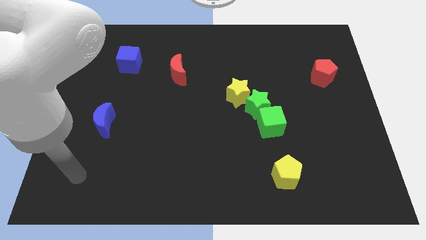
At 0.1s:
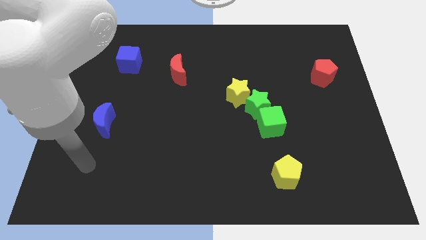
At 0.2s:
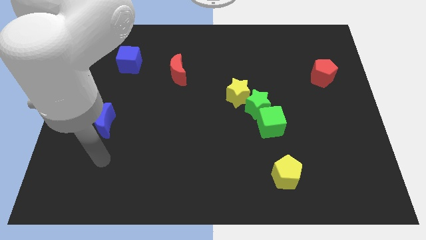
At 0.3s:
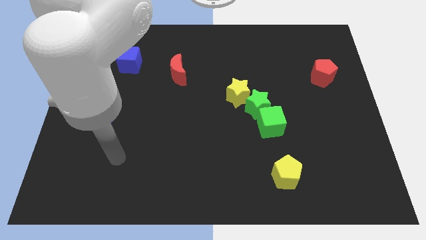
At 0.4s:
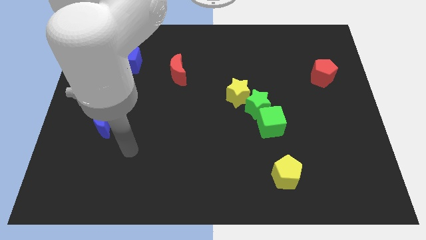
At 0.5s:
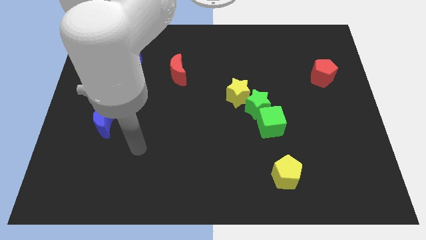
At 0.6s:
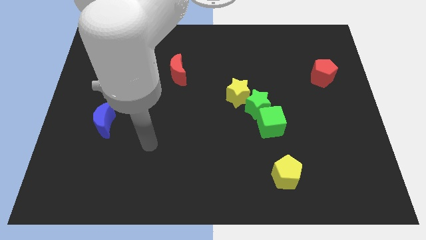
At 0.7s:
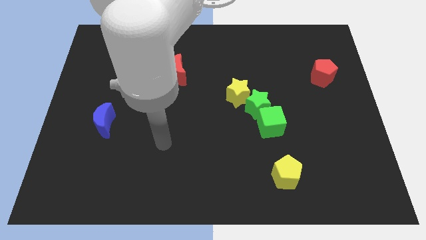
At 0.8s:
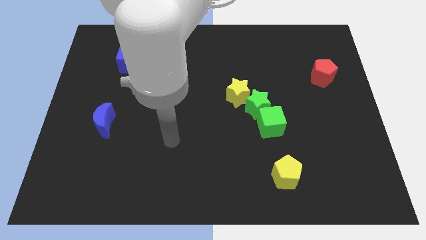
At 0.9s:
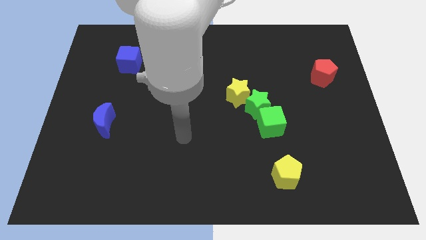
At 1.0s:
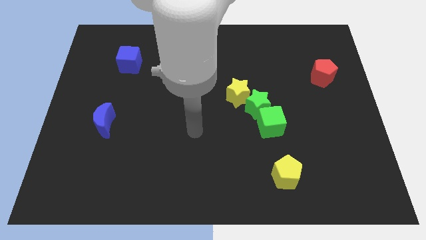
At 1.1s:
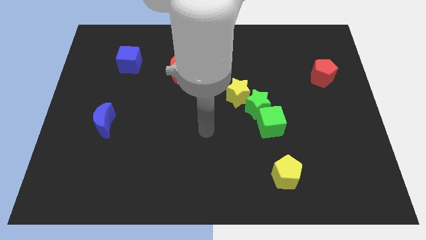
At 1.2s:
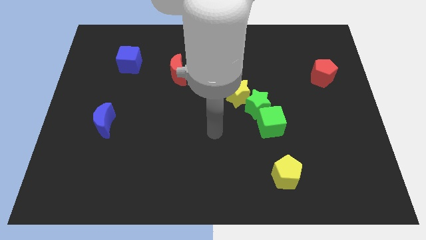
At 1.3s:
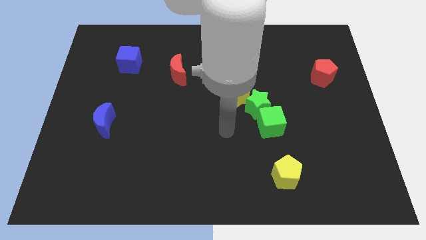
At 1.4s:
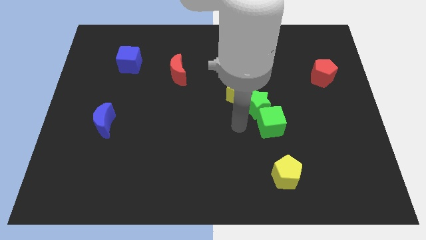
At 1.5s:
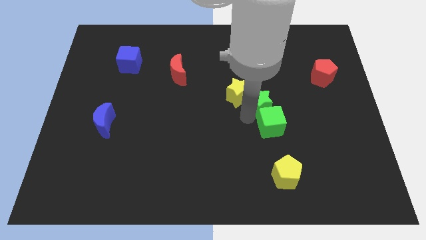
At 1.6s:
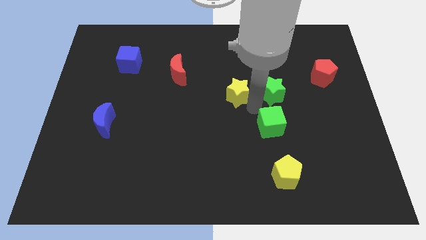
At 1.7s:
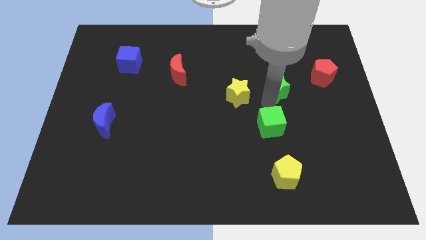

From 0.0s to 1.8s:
pull the green cube apart from the green star

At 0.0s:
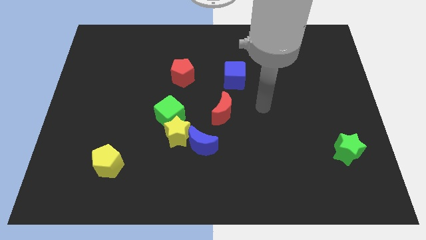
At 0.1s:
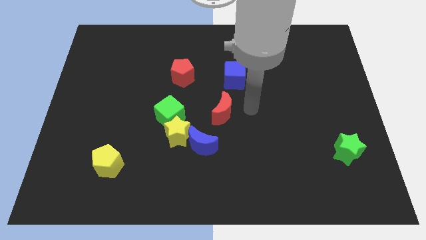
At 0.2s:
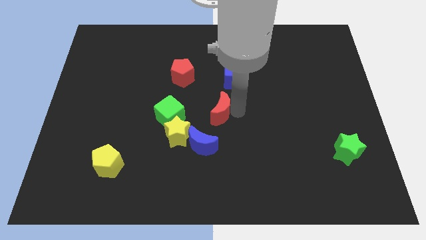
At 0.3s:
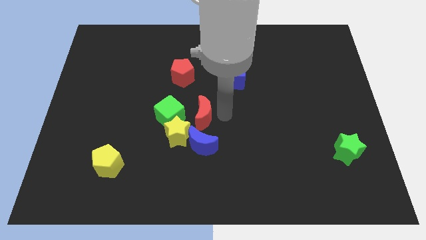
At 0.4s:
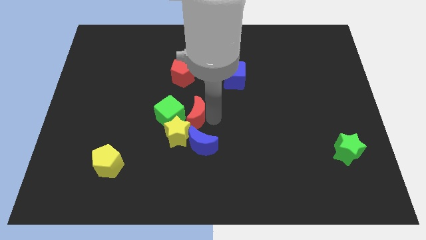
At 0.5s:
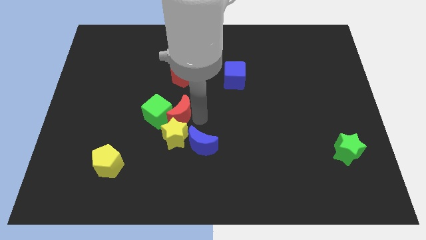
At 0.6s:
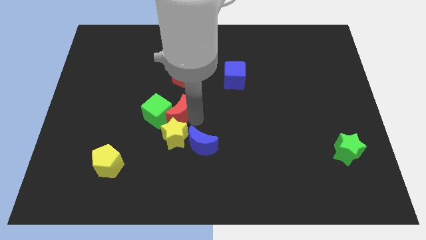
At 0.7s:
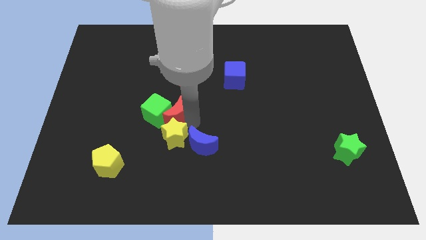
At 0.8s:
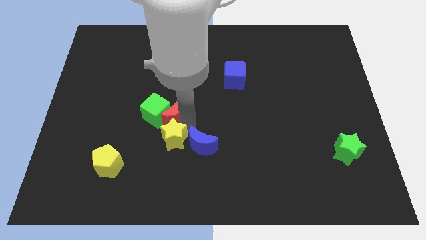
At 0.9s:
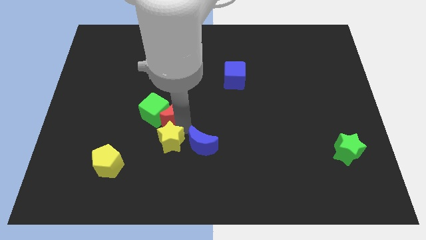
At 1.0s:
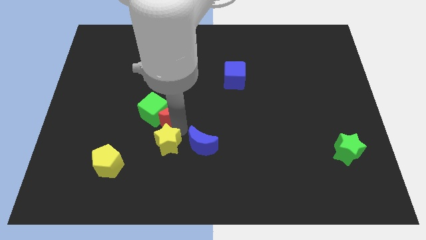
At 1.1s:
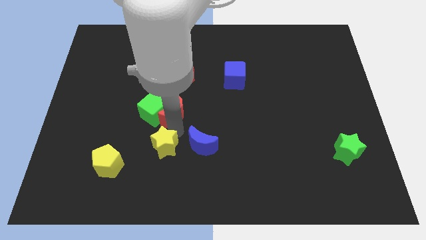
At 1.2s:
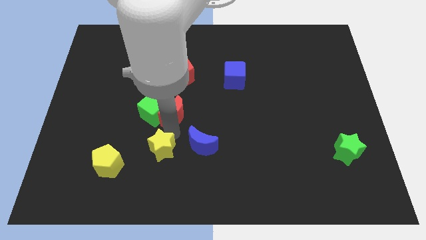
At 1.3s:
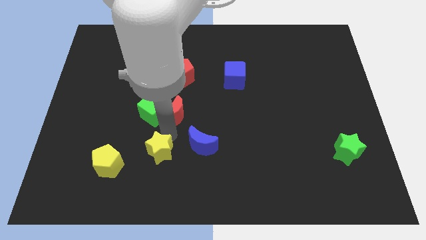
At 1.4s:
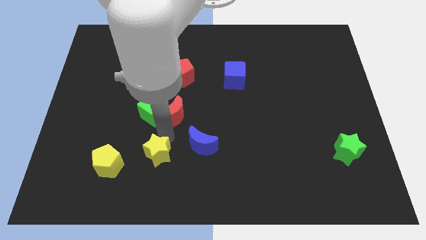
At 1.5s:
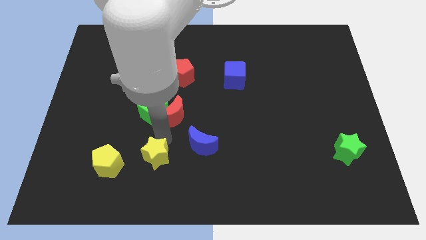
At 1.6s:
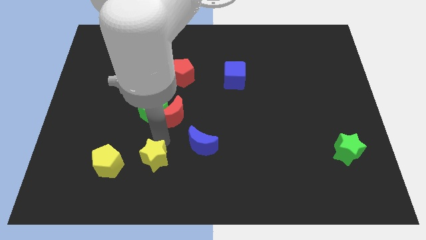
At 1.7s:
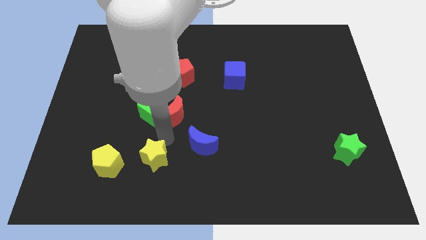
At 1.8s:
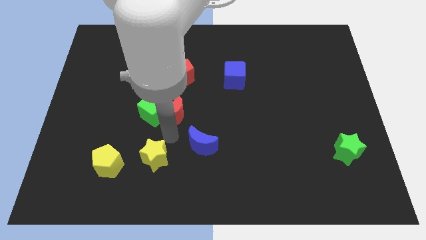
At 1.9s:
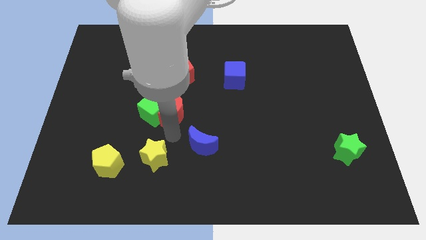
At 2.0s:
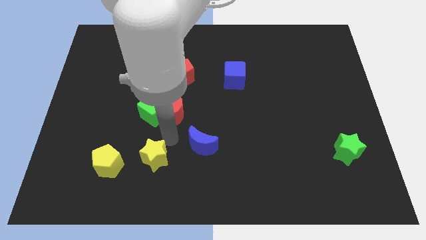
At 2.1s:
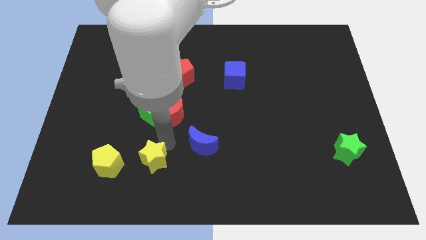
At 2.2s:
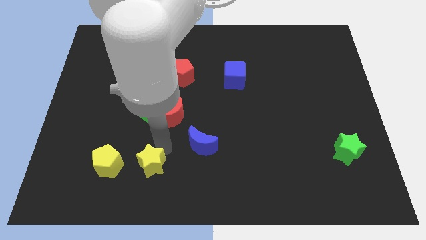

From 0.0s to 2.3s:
separate the yellow star from the blue moon and green cube

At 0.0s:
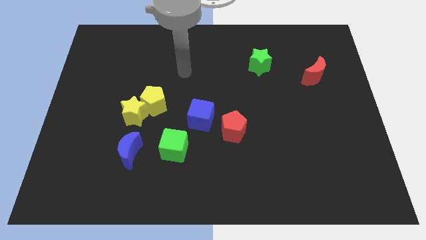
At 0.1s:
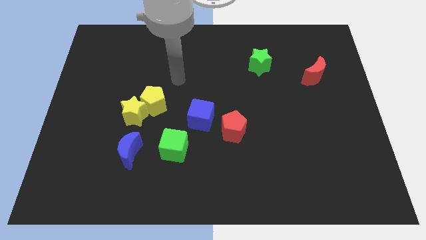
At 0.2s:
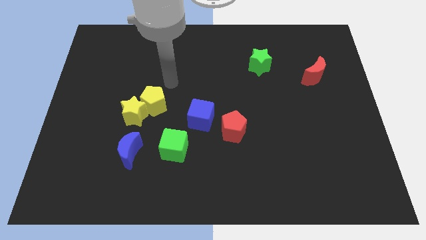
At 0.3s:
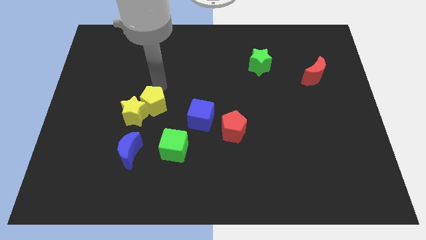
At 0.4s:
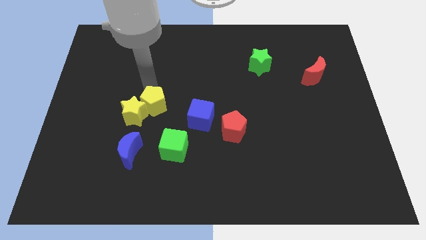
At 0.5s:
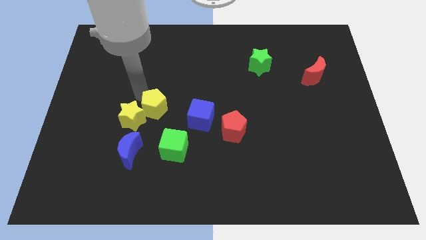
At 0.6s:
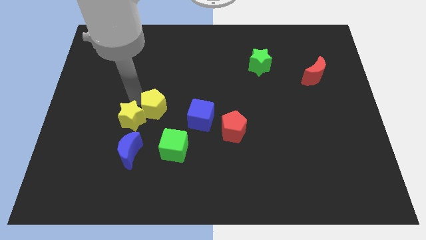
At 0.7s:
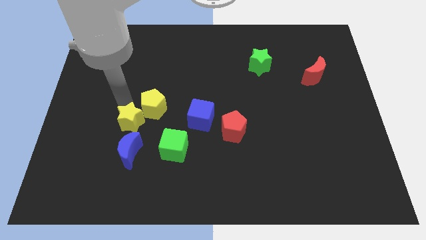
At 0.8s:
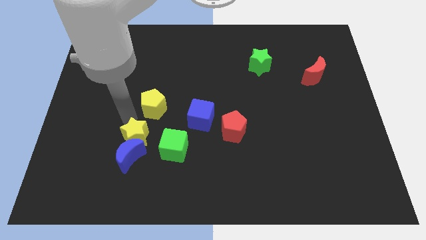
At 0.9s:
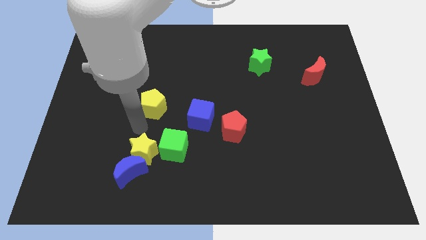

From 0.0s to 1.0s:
separate the yellow pentagon from the yellow star

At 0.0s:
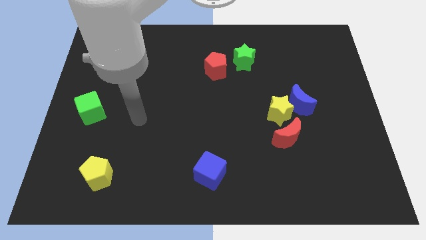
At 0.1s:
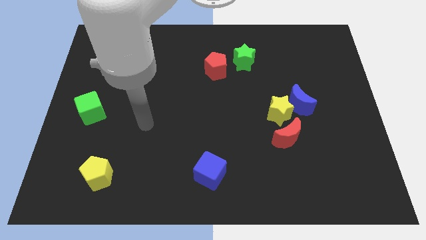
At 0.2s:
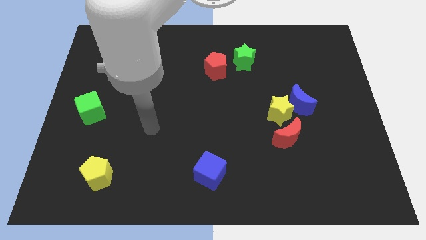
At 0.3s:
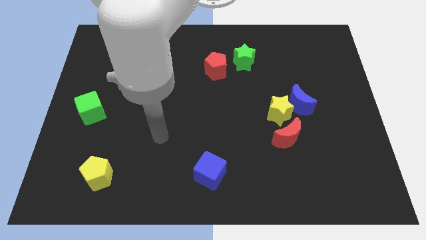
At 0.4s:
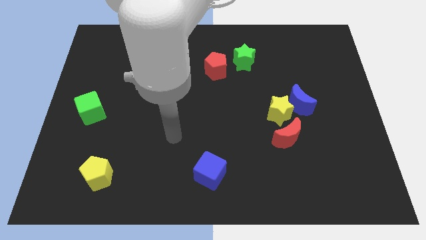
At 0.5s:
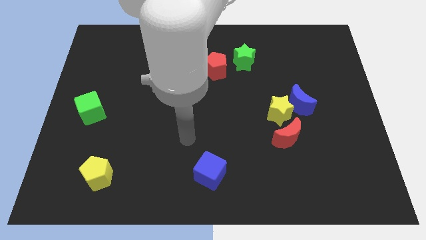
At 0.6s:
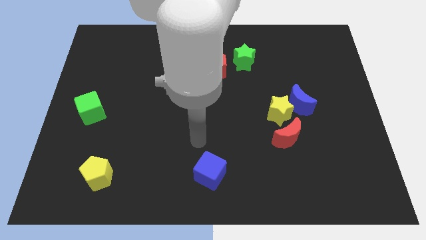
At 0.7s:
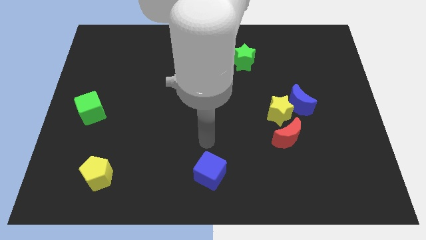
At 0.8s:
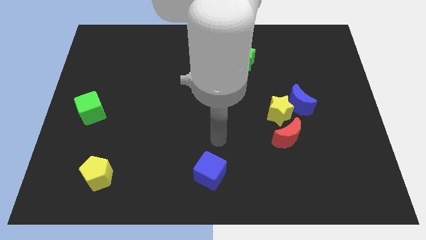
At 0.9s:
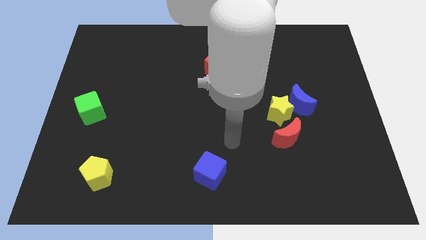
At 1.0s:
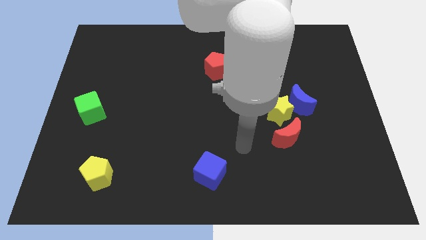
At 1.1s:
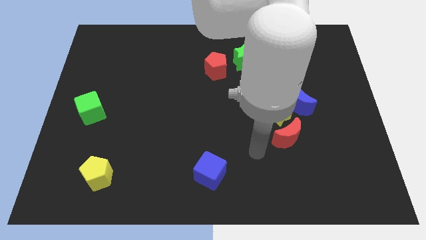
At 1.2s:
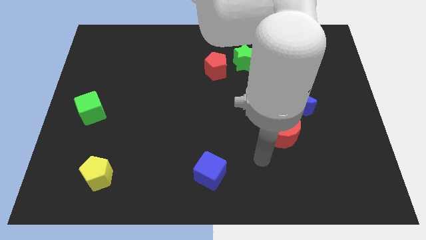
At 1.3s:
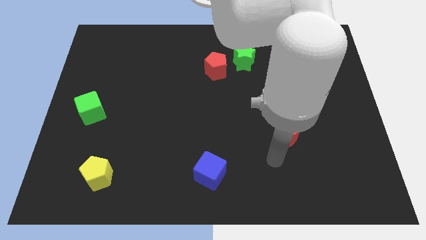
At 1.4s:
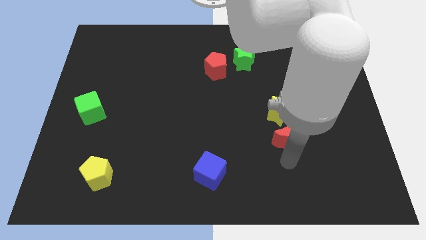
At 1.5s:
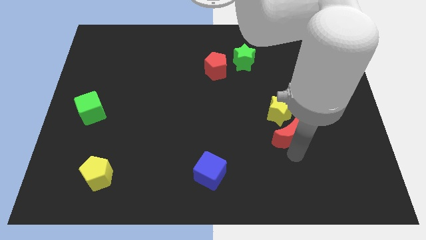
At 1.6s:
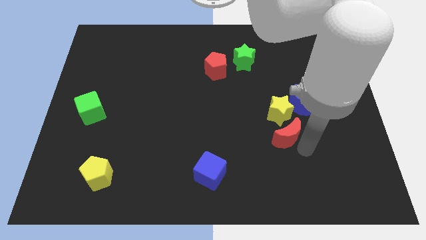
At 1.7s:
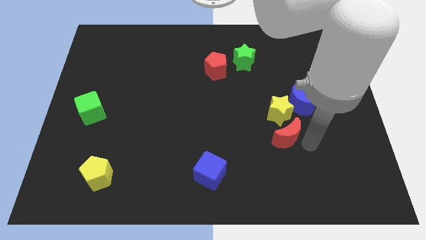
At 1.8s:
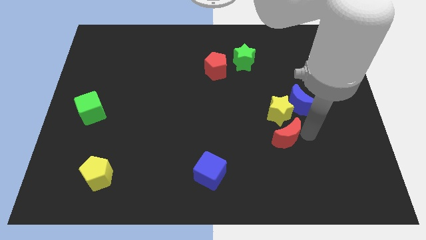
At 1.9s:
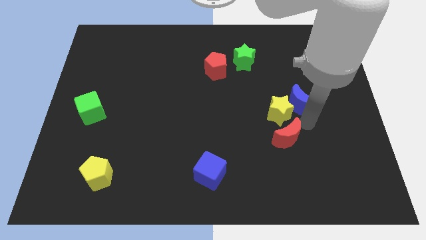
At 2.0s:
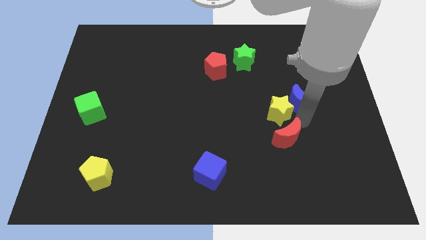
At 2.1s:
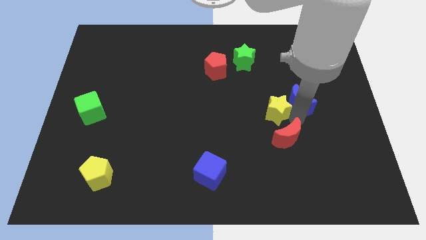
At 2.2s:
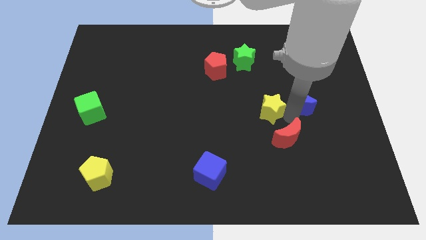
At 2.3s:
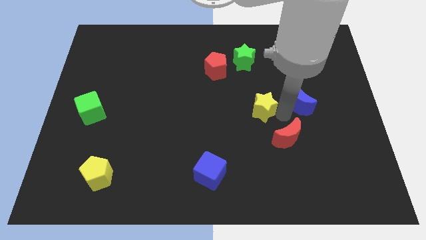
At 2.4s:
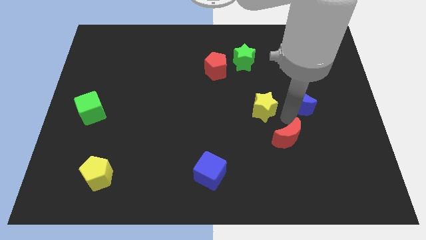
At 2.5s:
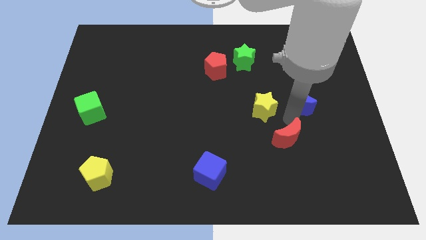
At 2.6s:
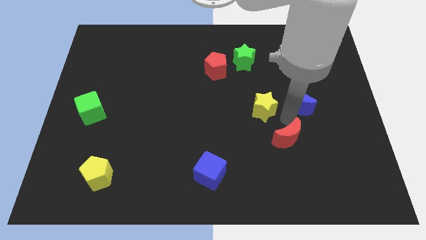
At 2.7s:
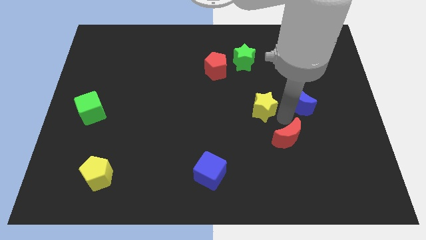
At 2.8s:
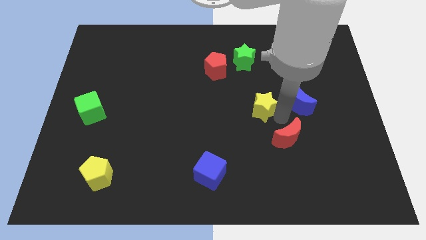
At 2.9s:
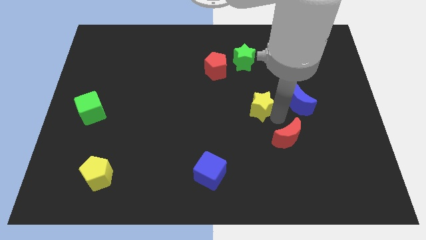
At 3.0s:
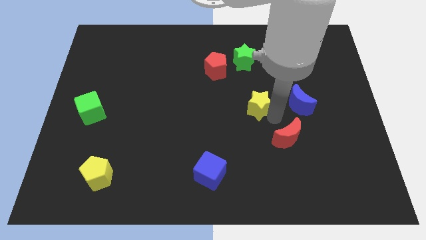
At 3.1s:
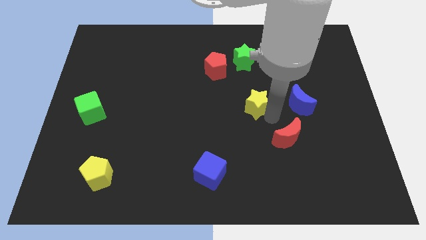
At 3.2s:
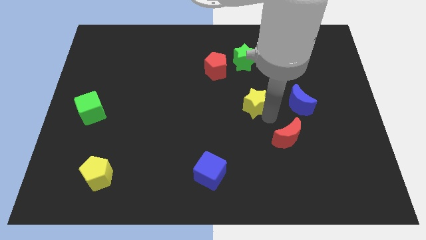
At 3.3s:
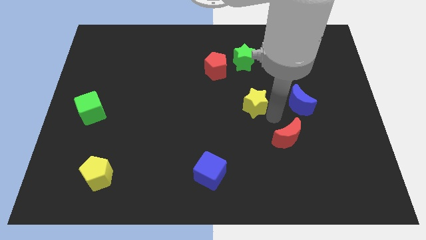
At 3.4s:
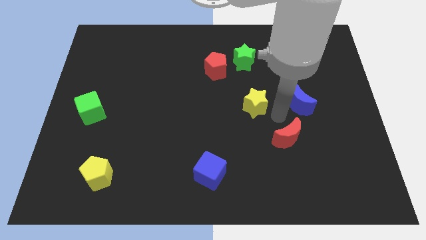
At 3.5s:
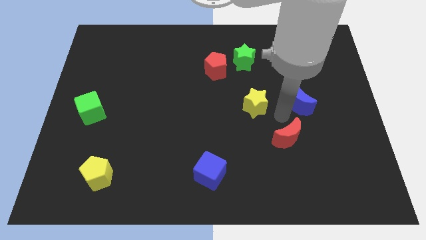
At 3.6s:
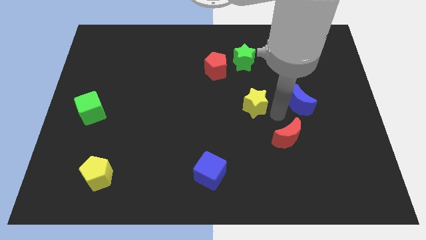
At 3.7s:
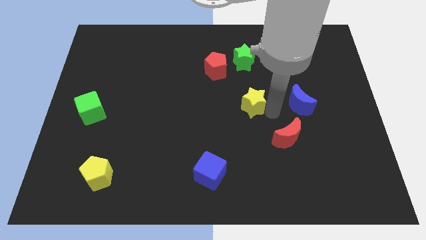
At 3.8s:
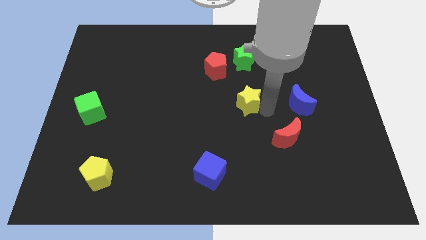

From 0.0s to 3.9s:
separate the yellow star from the blue moon and red moon

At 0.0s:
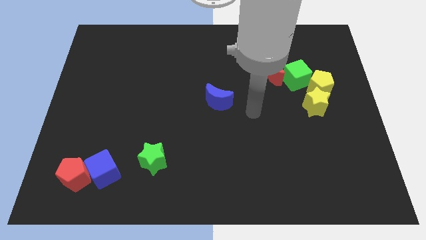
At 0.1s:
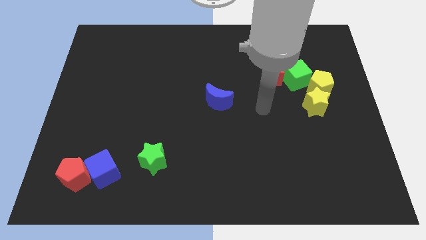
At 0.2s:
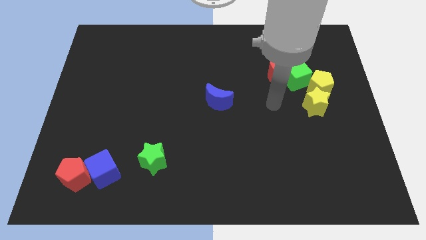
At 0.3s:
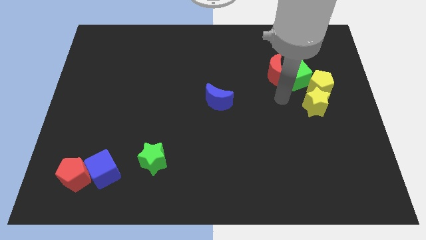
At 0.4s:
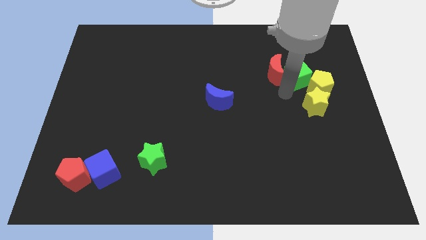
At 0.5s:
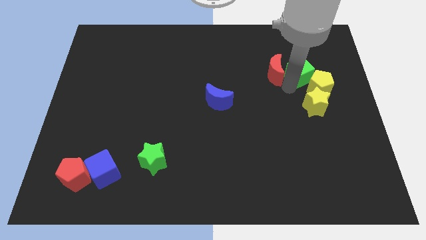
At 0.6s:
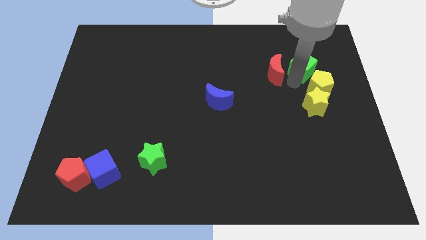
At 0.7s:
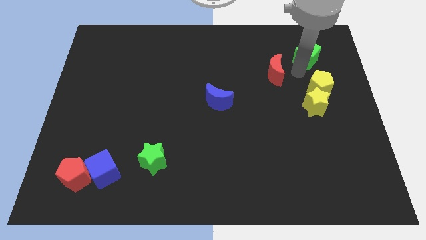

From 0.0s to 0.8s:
separate the red moon from the green cube
